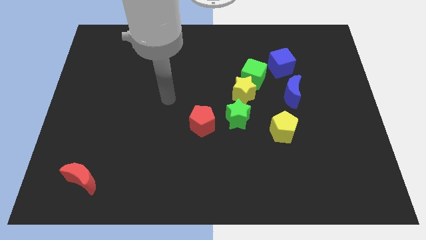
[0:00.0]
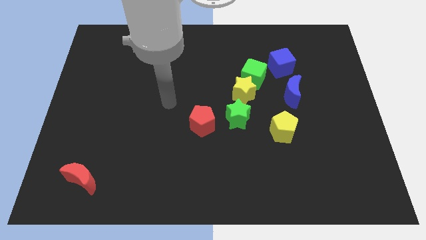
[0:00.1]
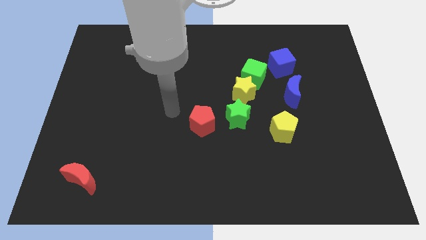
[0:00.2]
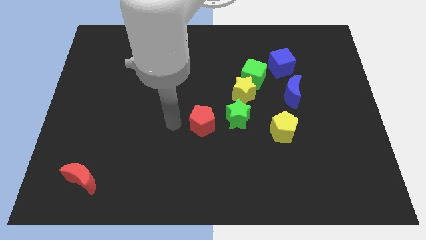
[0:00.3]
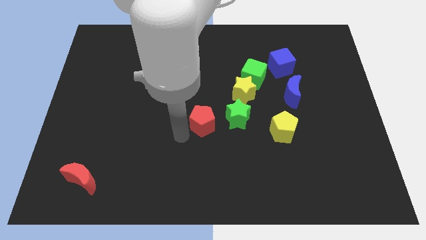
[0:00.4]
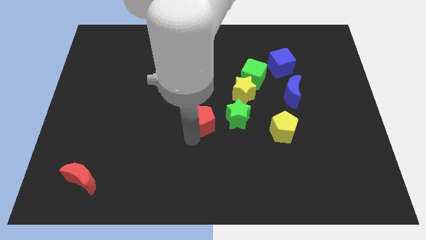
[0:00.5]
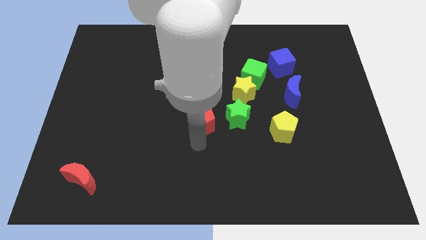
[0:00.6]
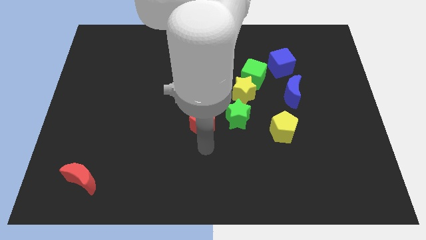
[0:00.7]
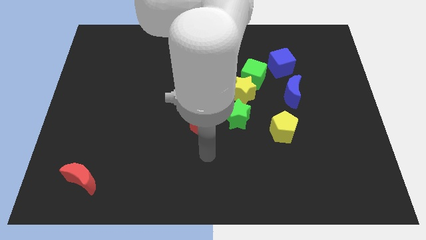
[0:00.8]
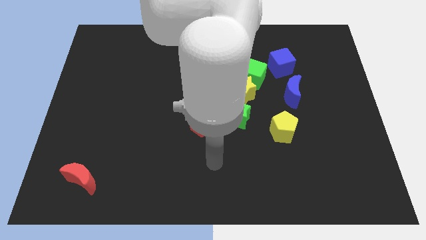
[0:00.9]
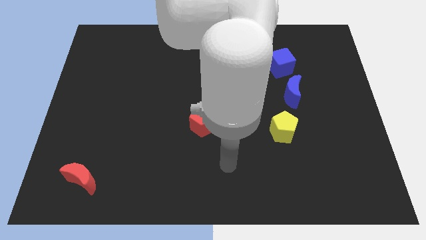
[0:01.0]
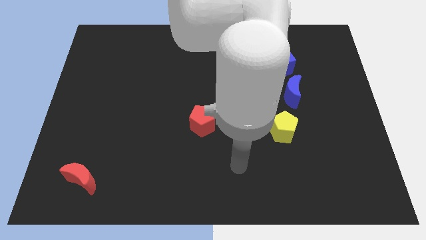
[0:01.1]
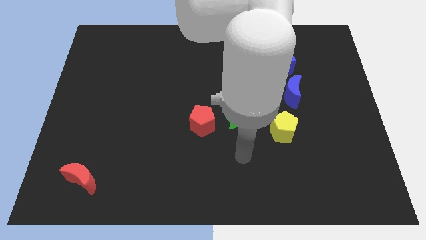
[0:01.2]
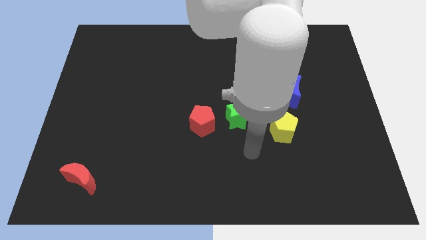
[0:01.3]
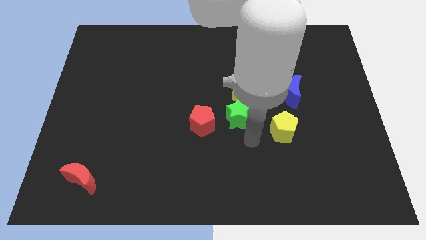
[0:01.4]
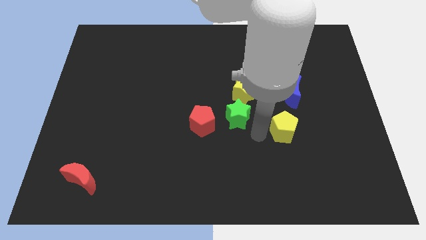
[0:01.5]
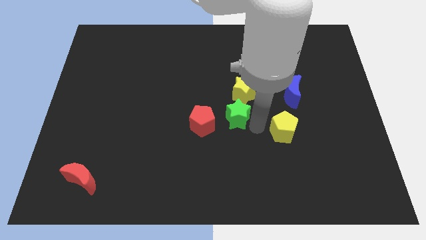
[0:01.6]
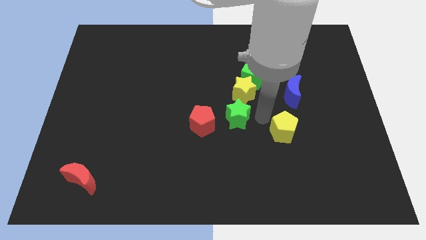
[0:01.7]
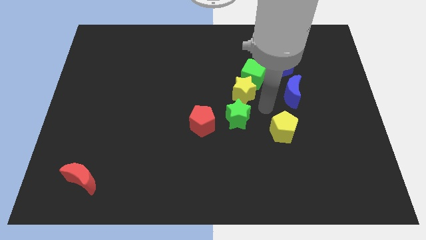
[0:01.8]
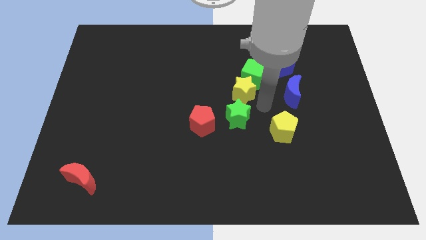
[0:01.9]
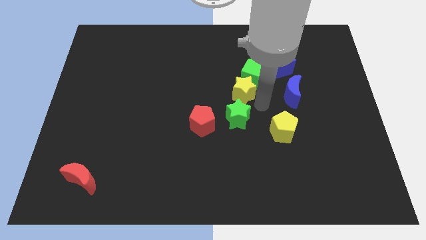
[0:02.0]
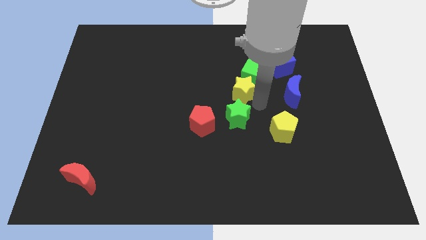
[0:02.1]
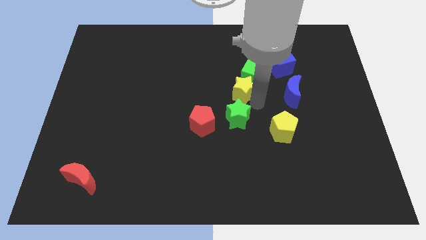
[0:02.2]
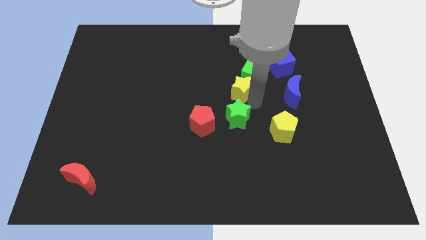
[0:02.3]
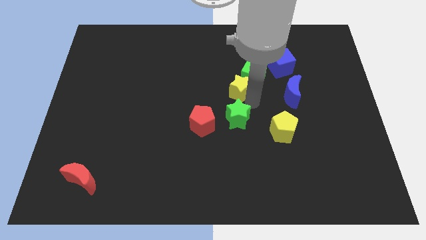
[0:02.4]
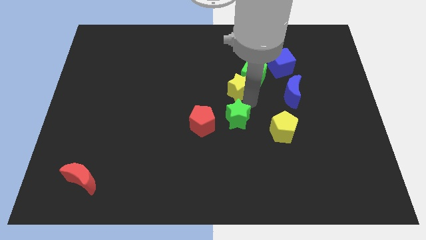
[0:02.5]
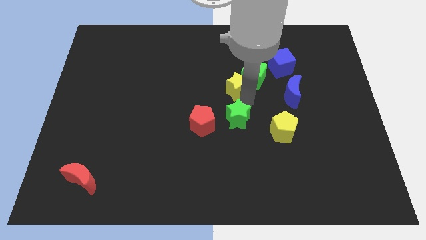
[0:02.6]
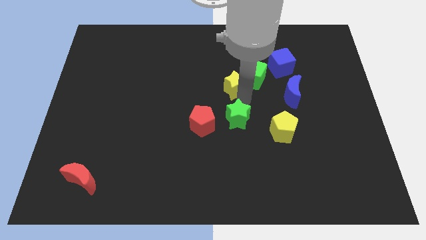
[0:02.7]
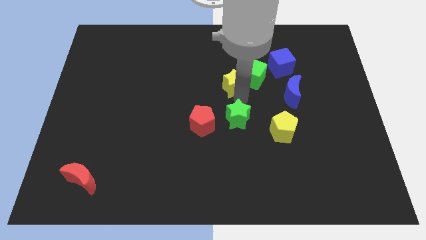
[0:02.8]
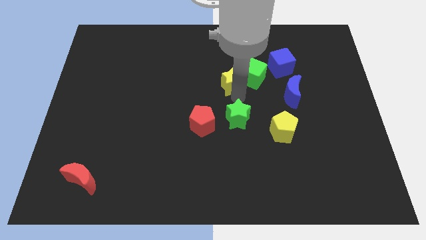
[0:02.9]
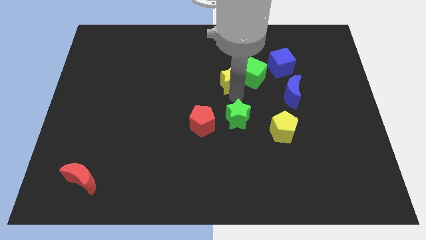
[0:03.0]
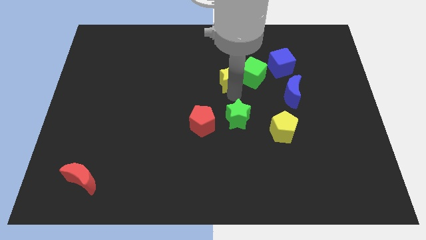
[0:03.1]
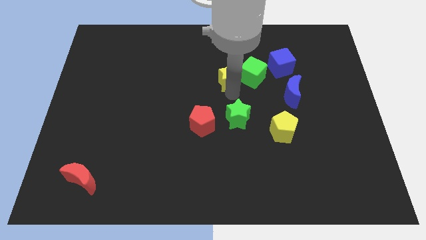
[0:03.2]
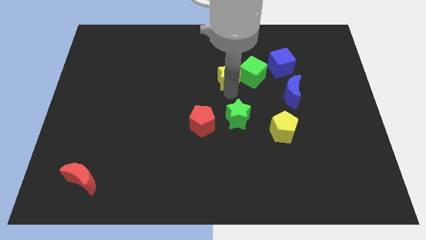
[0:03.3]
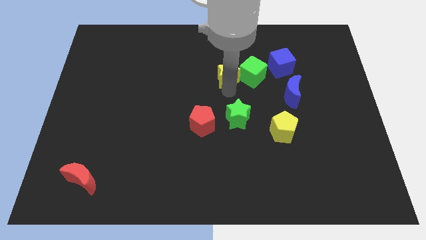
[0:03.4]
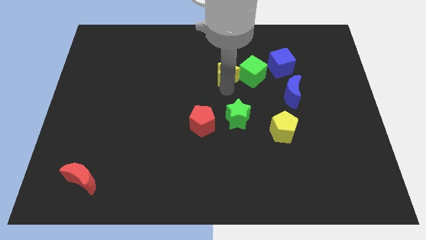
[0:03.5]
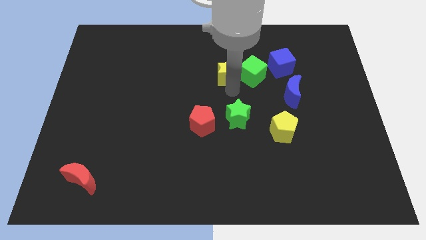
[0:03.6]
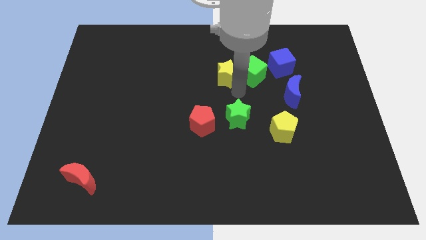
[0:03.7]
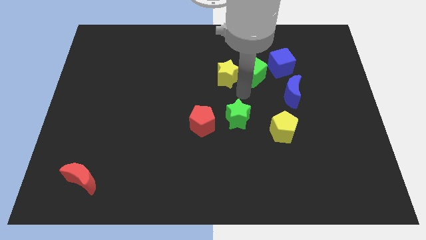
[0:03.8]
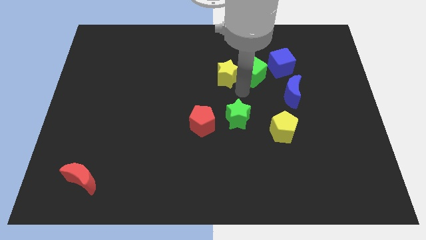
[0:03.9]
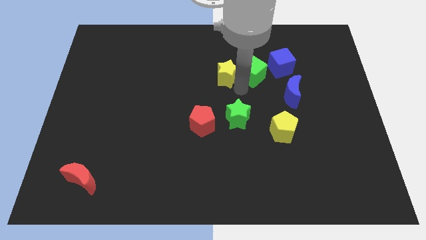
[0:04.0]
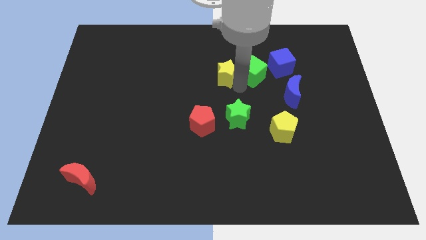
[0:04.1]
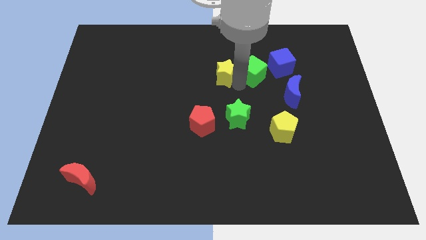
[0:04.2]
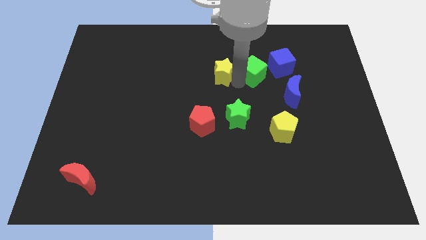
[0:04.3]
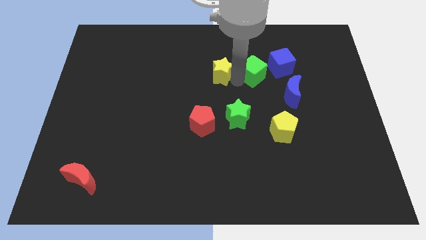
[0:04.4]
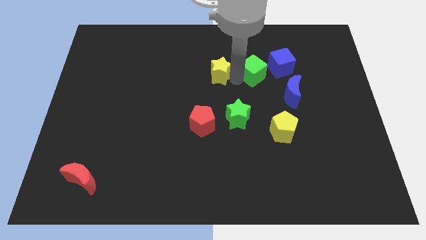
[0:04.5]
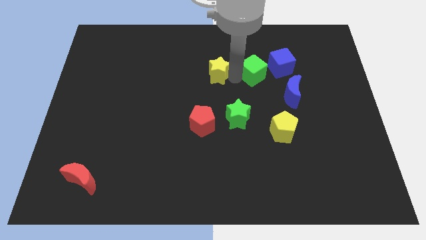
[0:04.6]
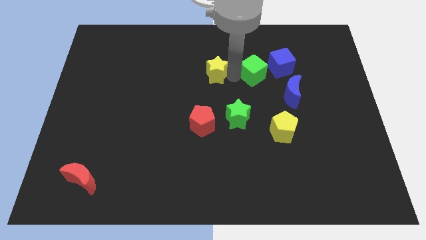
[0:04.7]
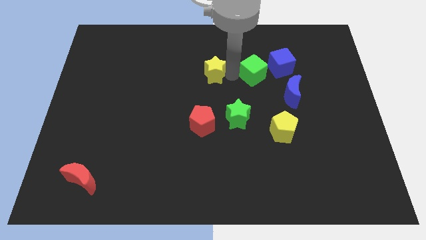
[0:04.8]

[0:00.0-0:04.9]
move the yellow star away from the green cube and green star

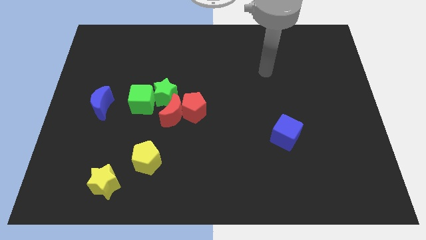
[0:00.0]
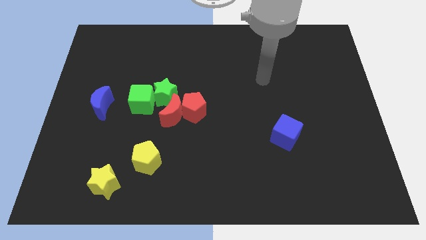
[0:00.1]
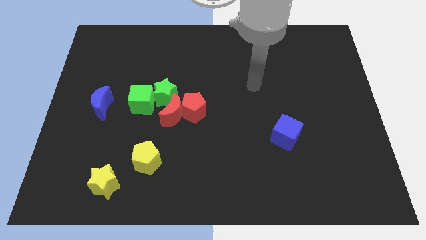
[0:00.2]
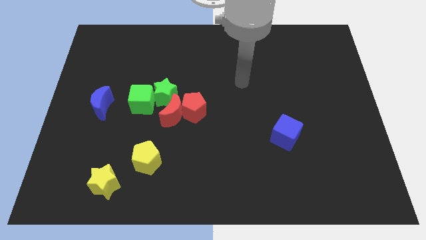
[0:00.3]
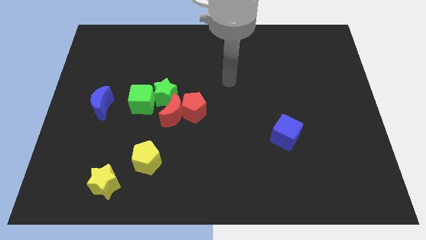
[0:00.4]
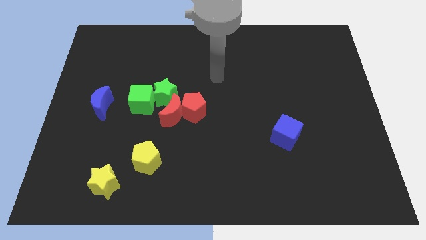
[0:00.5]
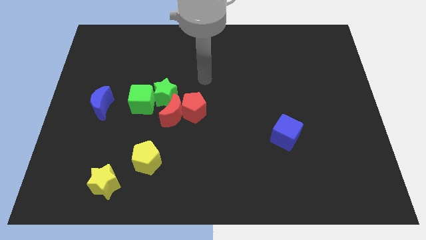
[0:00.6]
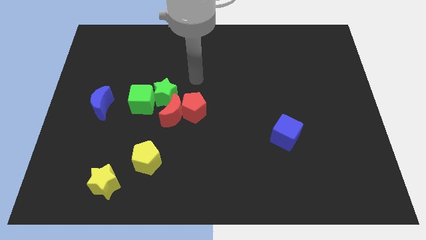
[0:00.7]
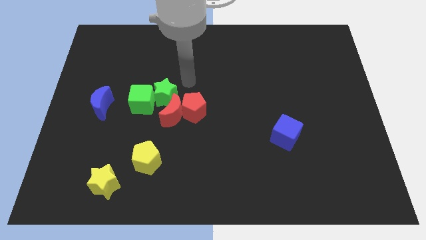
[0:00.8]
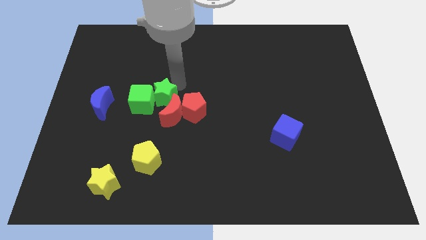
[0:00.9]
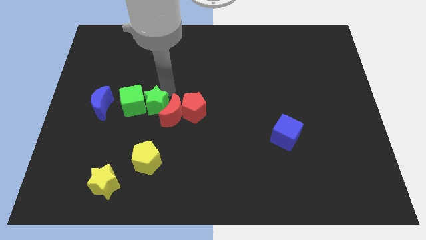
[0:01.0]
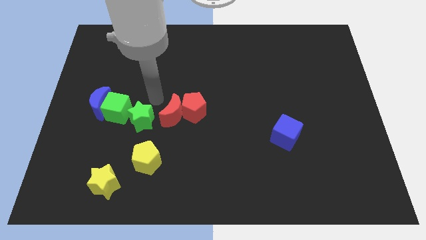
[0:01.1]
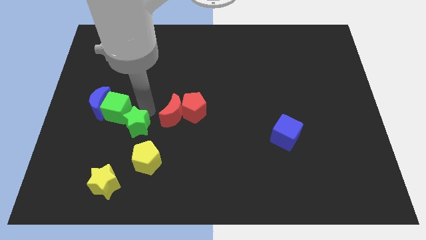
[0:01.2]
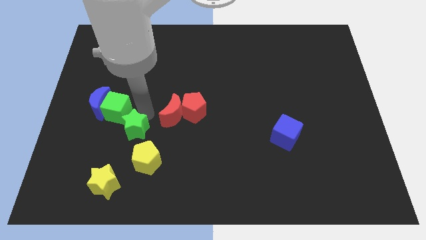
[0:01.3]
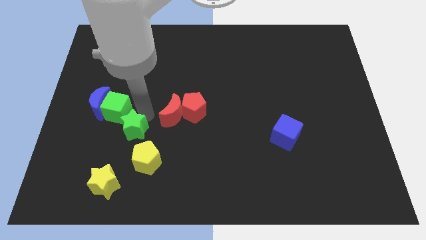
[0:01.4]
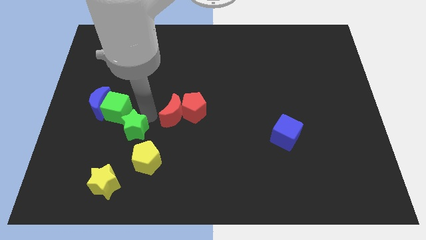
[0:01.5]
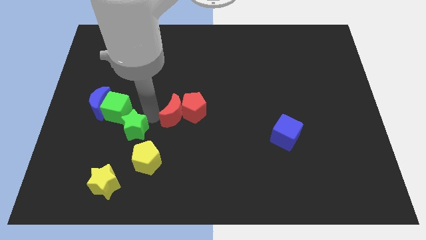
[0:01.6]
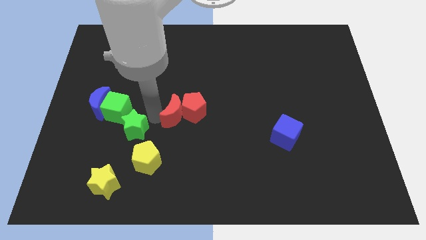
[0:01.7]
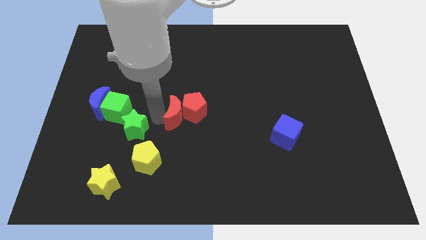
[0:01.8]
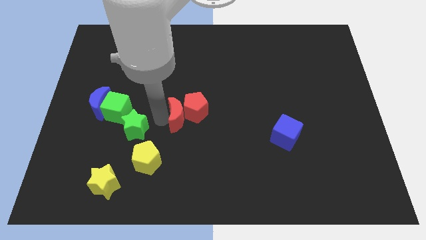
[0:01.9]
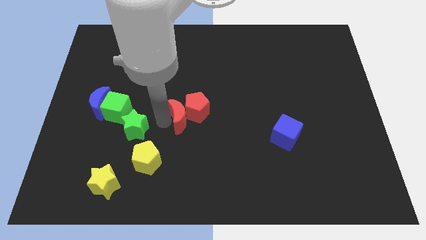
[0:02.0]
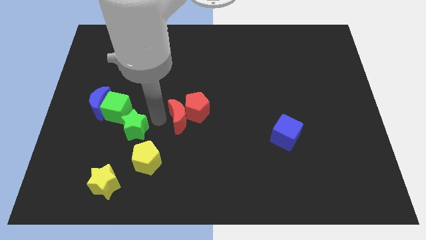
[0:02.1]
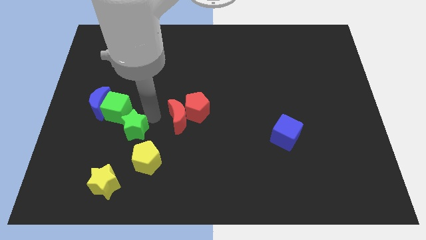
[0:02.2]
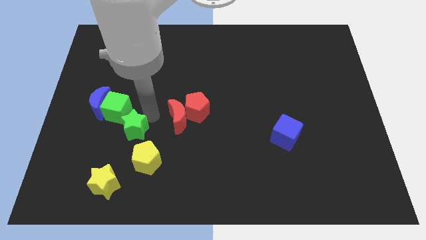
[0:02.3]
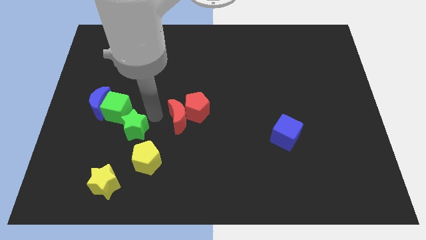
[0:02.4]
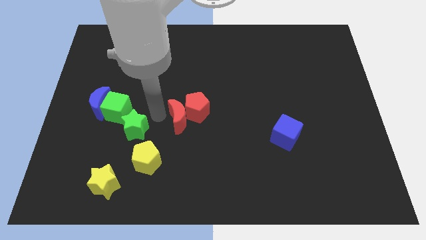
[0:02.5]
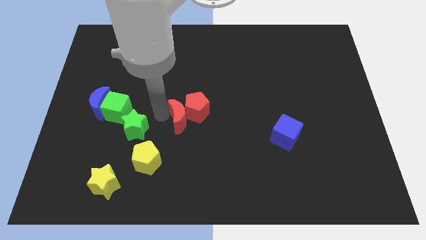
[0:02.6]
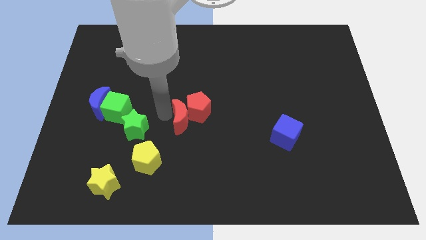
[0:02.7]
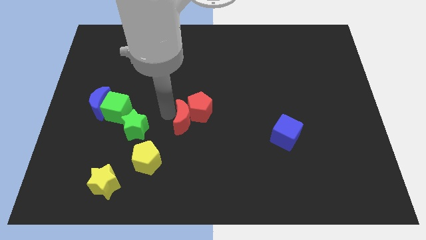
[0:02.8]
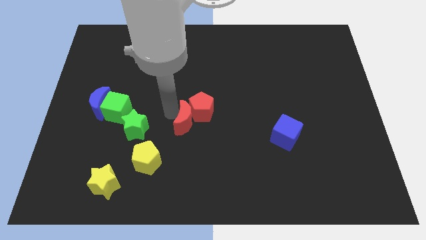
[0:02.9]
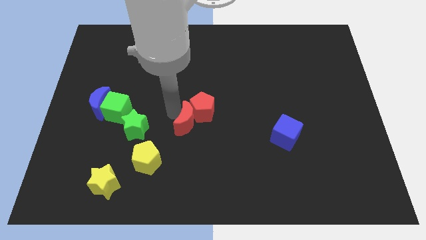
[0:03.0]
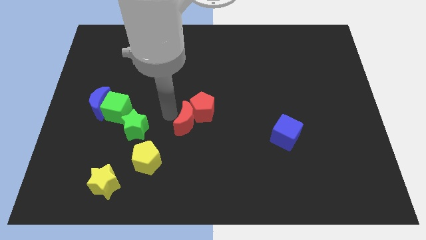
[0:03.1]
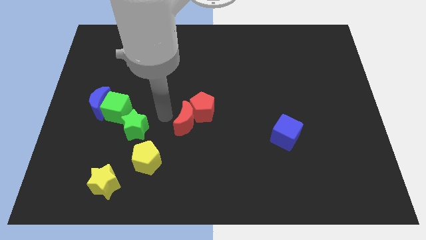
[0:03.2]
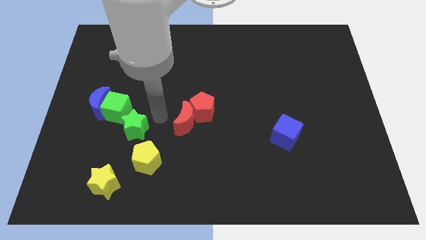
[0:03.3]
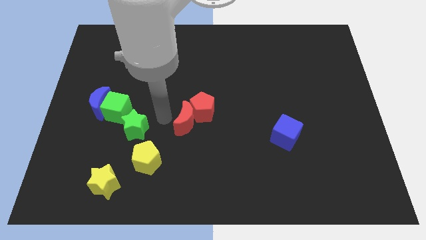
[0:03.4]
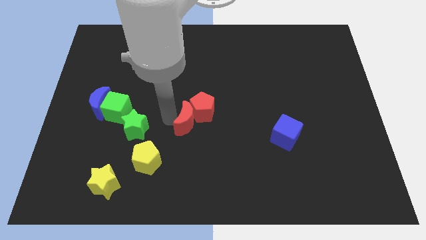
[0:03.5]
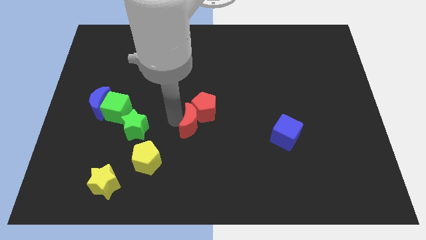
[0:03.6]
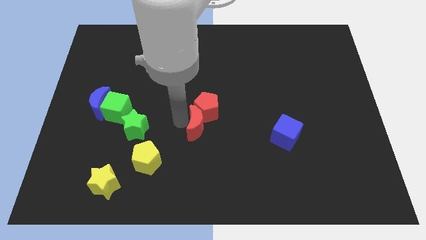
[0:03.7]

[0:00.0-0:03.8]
pull the red moon apart from the clump

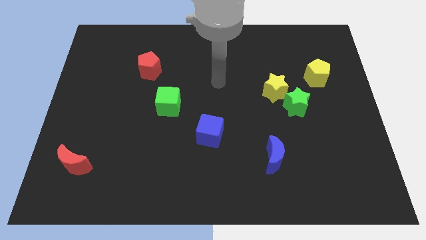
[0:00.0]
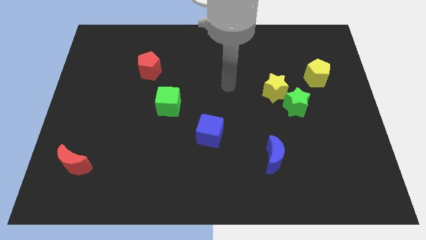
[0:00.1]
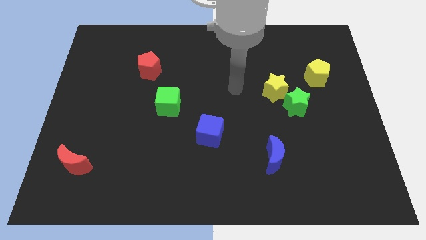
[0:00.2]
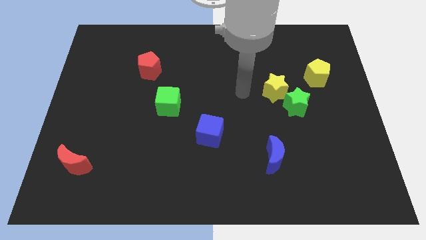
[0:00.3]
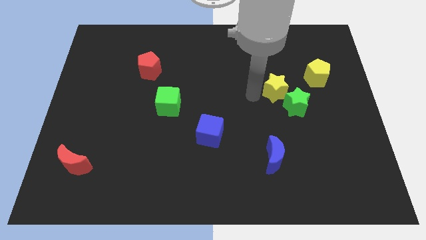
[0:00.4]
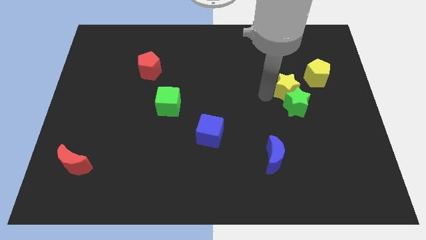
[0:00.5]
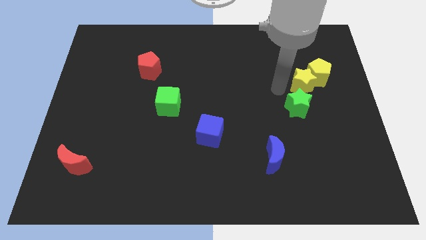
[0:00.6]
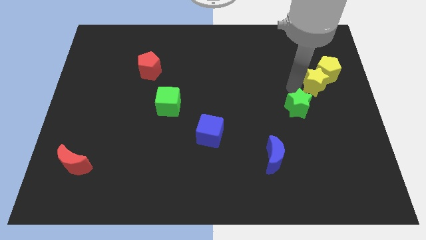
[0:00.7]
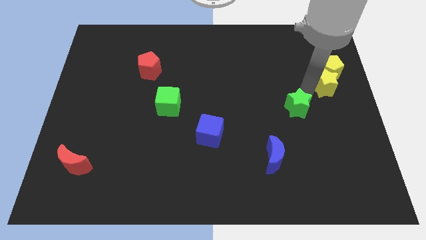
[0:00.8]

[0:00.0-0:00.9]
pull the green star apart from the yellow star
